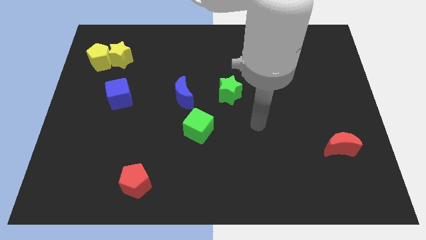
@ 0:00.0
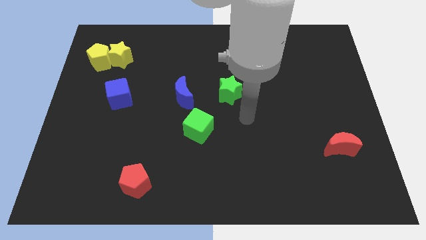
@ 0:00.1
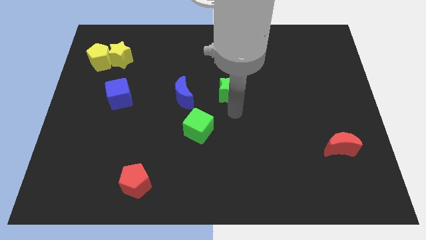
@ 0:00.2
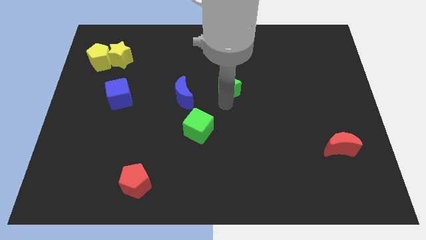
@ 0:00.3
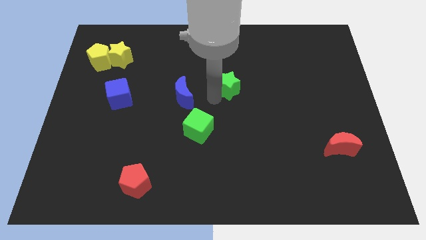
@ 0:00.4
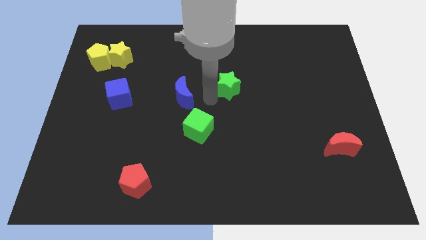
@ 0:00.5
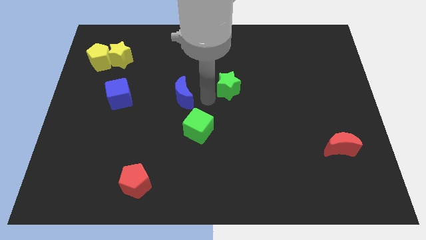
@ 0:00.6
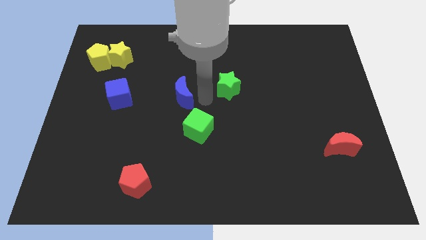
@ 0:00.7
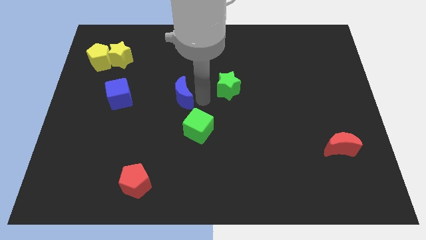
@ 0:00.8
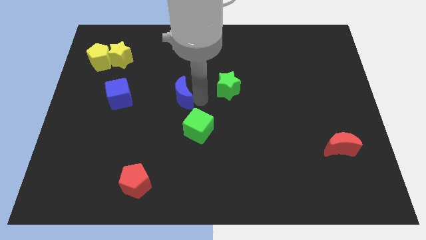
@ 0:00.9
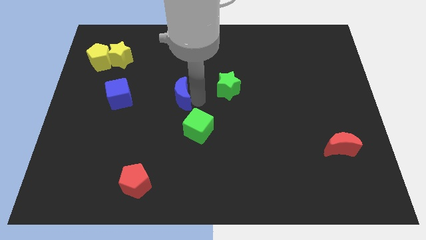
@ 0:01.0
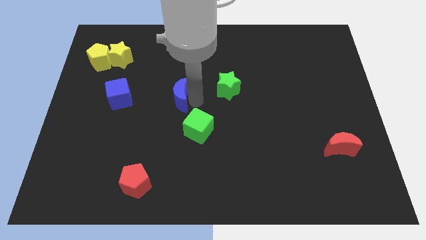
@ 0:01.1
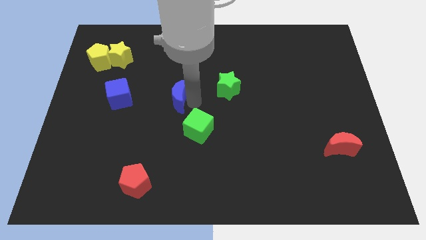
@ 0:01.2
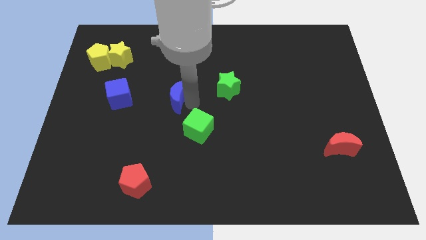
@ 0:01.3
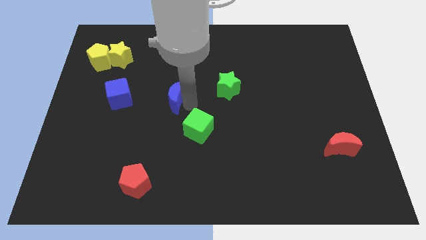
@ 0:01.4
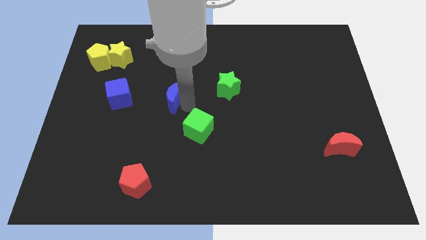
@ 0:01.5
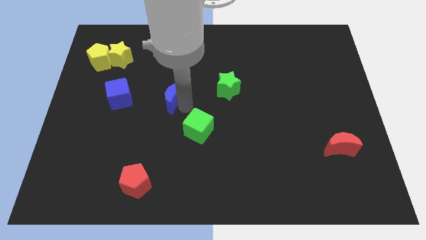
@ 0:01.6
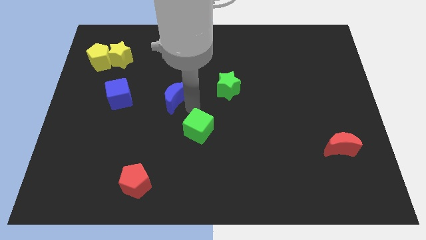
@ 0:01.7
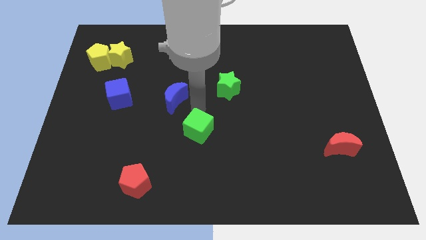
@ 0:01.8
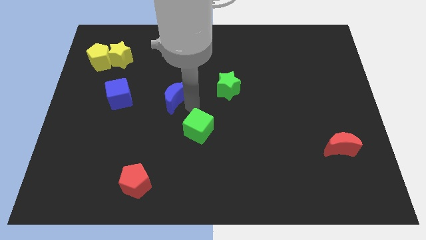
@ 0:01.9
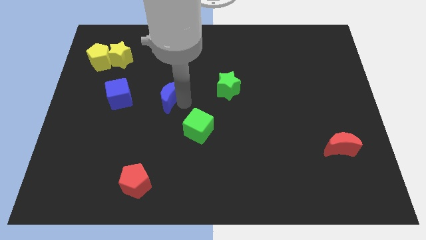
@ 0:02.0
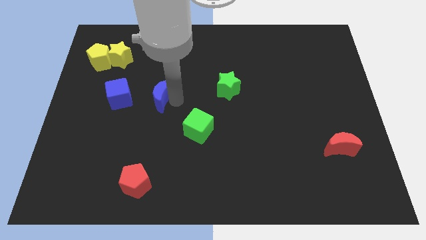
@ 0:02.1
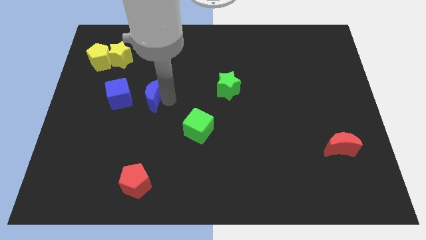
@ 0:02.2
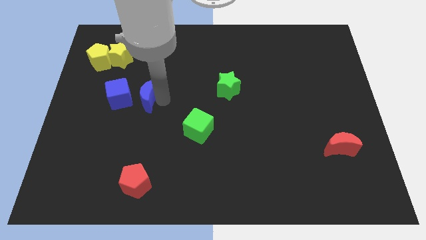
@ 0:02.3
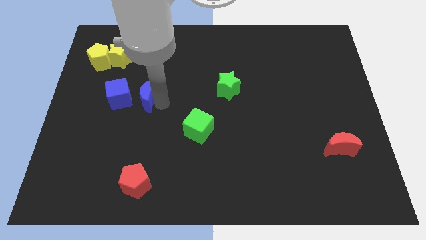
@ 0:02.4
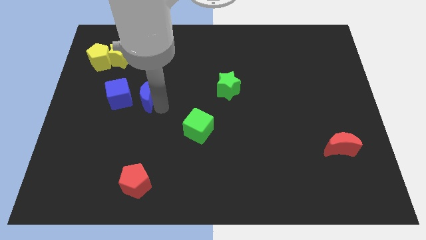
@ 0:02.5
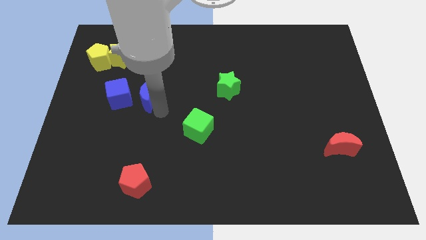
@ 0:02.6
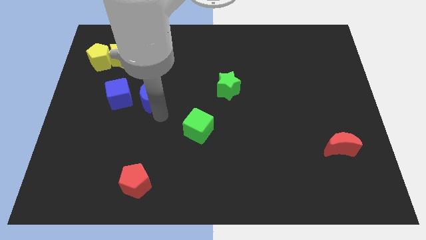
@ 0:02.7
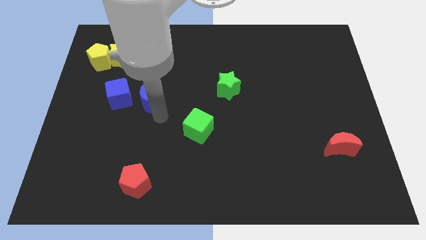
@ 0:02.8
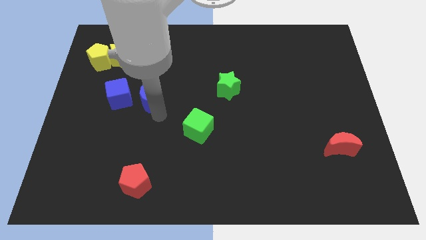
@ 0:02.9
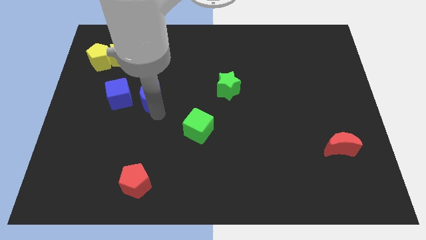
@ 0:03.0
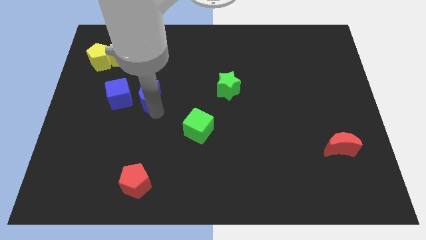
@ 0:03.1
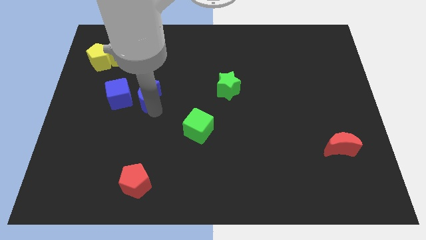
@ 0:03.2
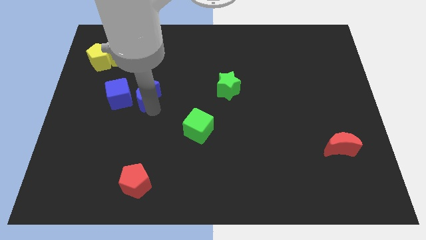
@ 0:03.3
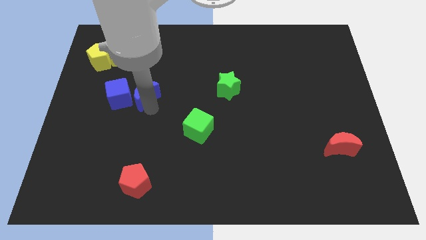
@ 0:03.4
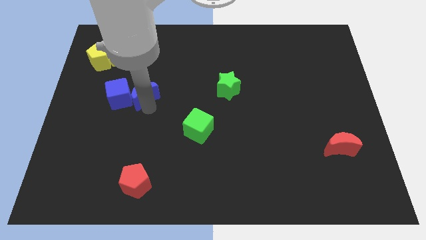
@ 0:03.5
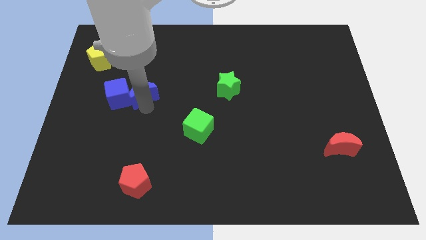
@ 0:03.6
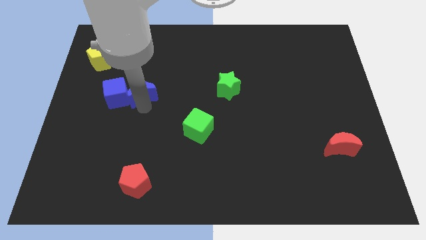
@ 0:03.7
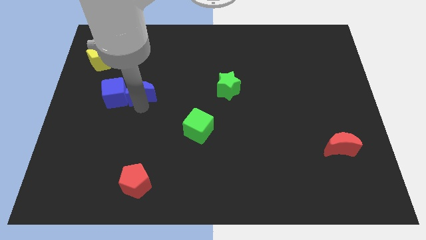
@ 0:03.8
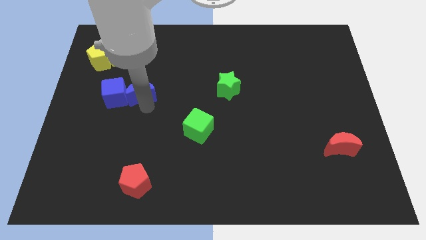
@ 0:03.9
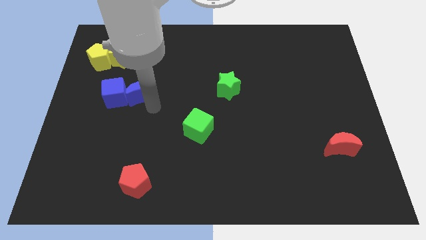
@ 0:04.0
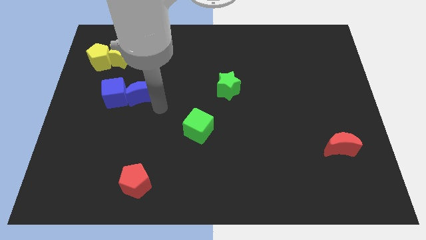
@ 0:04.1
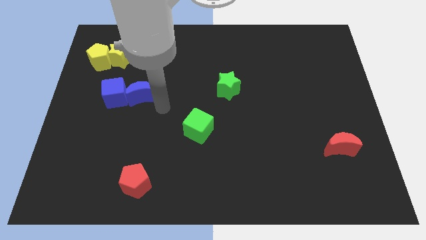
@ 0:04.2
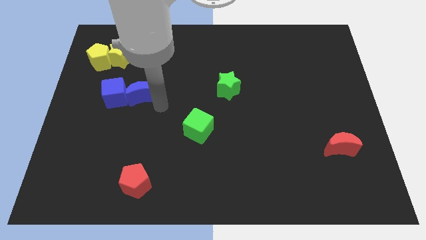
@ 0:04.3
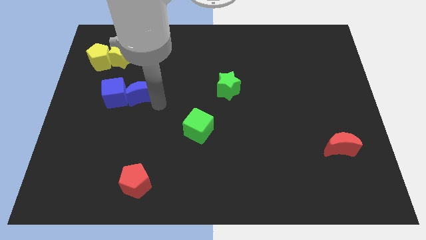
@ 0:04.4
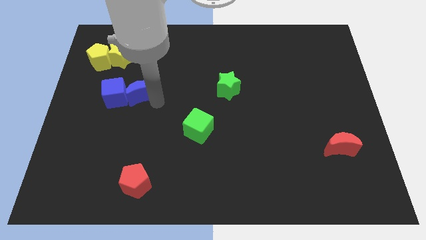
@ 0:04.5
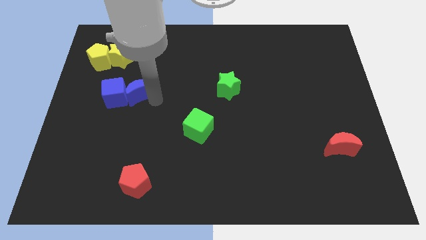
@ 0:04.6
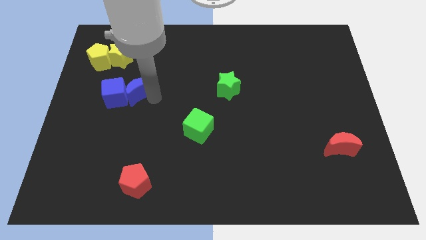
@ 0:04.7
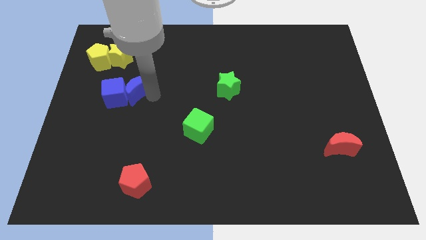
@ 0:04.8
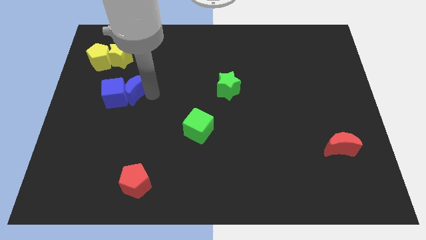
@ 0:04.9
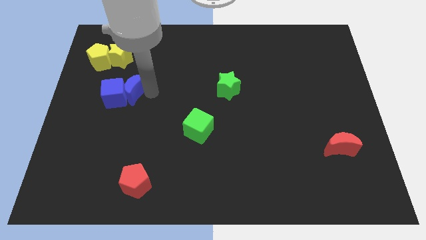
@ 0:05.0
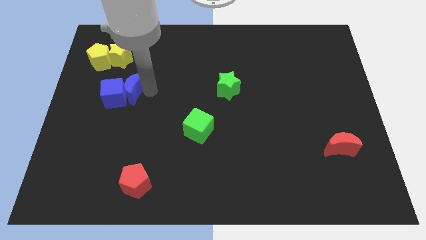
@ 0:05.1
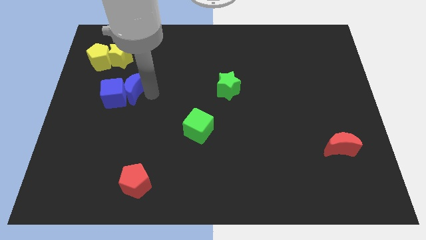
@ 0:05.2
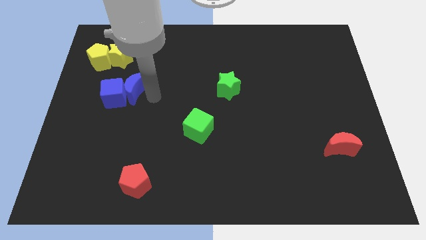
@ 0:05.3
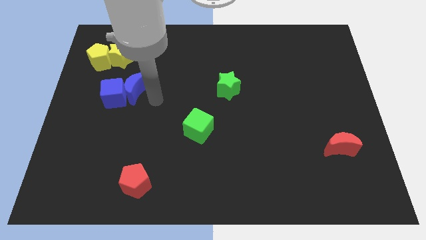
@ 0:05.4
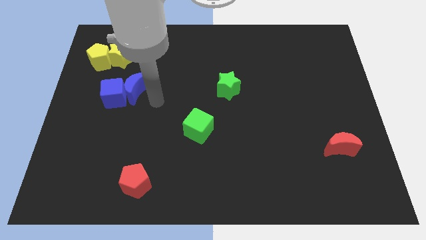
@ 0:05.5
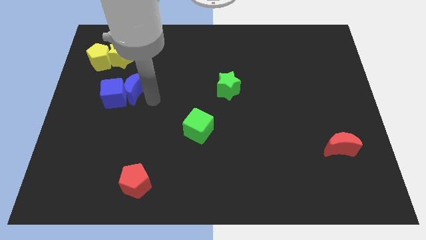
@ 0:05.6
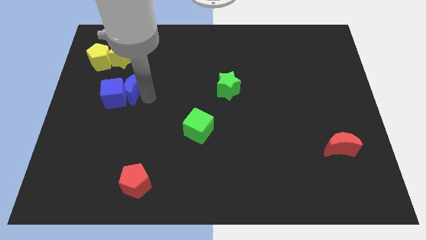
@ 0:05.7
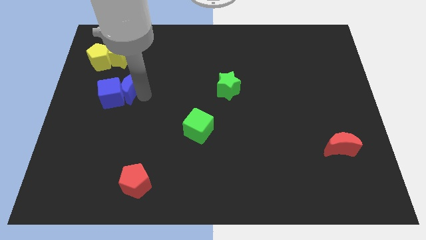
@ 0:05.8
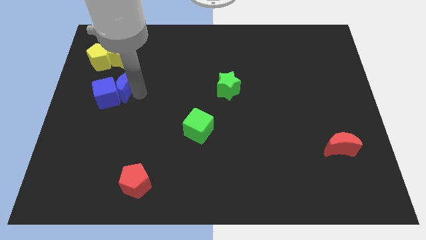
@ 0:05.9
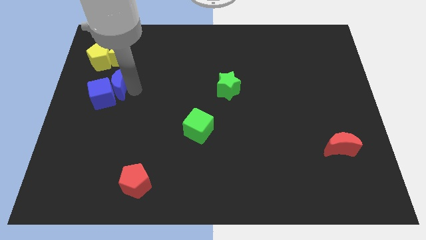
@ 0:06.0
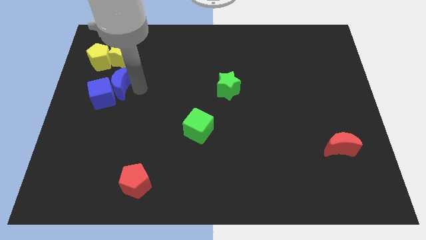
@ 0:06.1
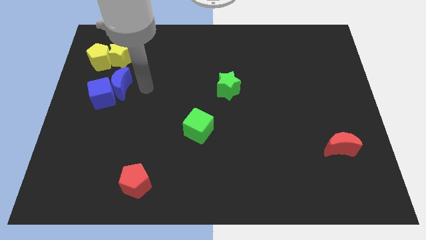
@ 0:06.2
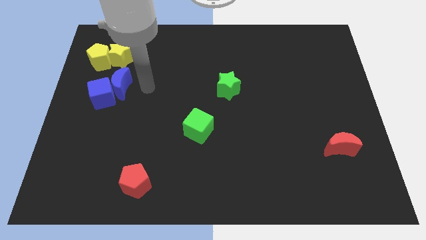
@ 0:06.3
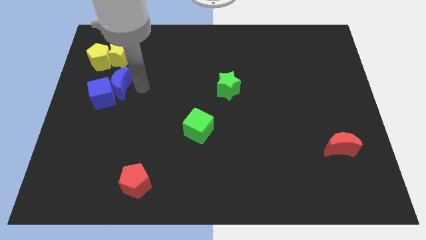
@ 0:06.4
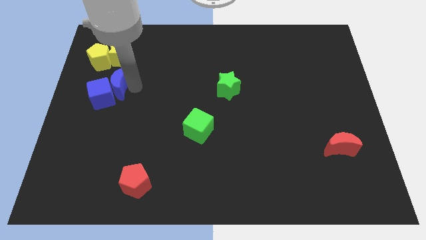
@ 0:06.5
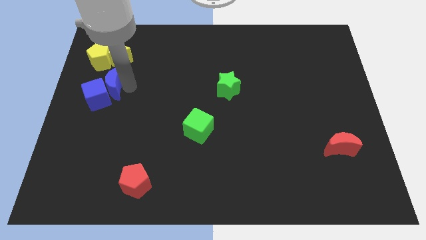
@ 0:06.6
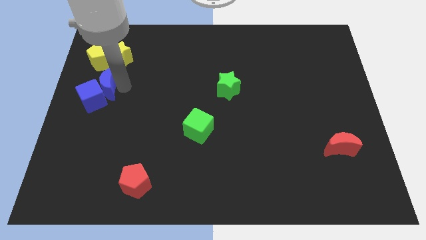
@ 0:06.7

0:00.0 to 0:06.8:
put the blue moon to the left side
